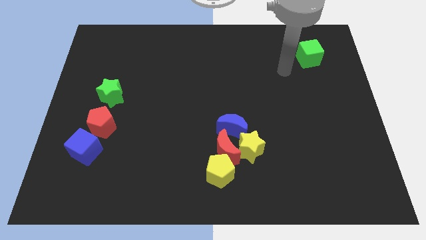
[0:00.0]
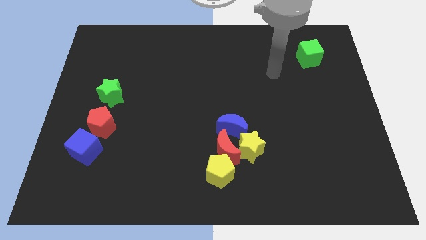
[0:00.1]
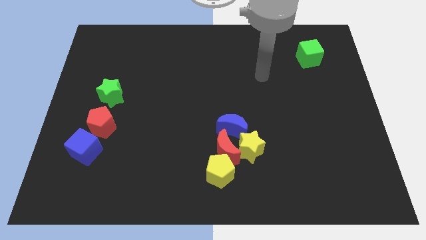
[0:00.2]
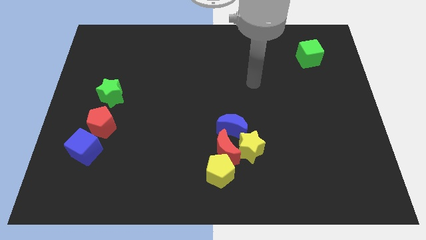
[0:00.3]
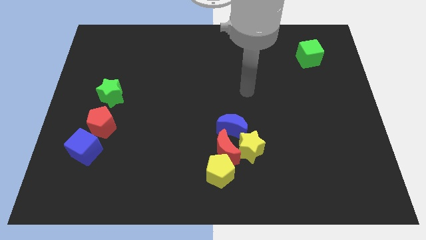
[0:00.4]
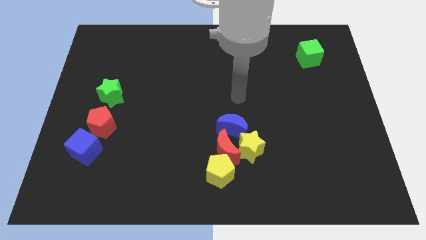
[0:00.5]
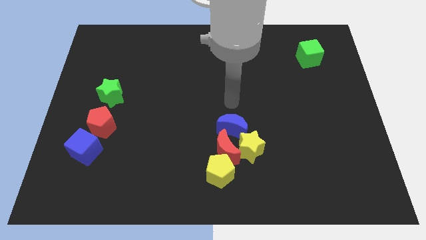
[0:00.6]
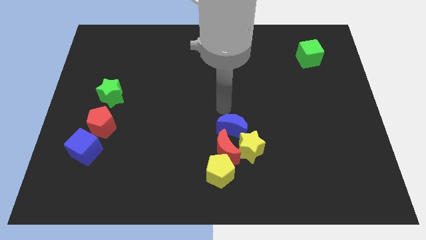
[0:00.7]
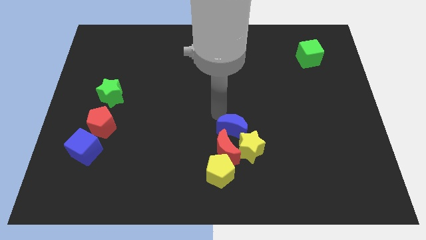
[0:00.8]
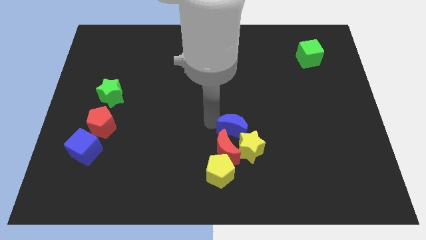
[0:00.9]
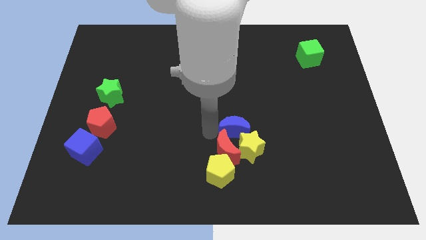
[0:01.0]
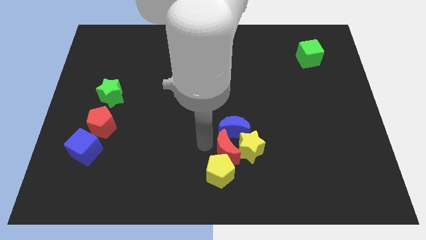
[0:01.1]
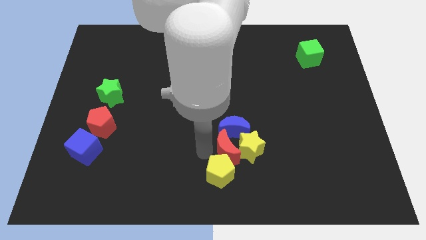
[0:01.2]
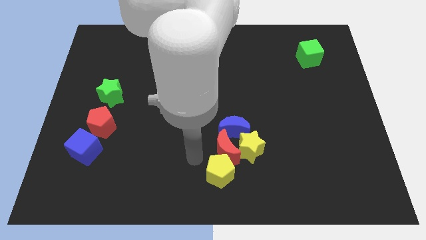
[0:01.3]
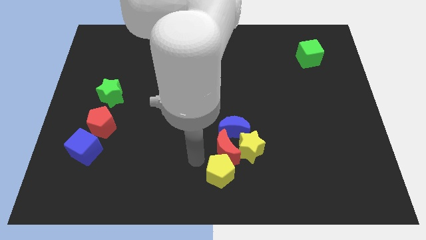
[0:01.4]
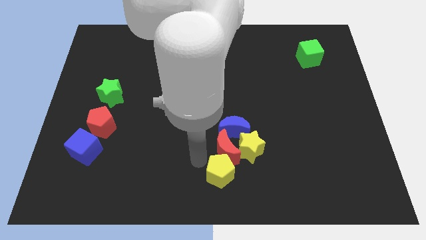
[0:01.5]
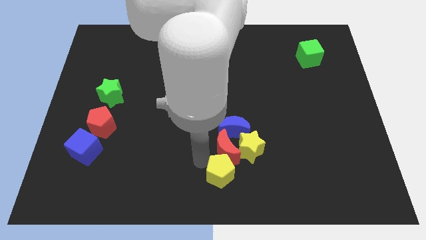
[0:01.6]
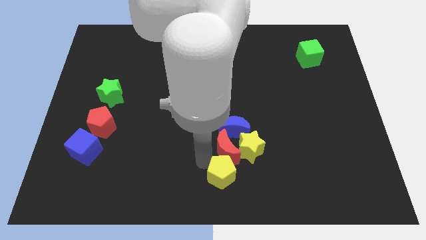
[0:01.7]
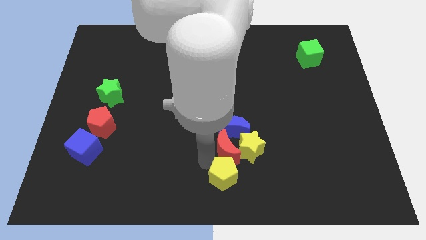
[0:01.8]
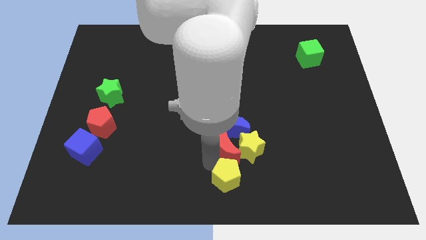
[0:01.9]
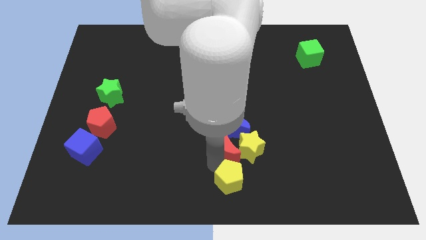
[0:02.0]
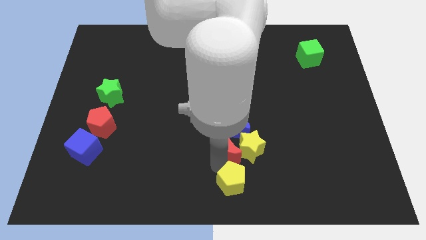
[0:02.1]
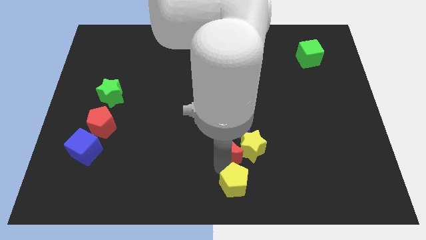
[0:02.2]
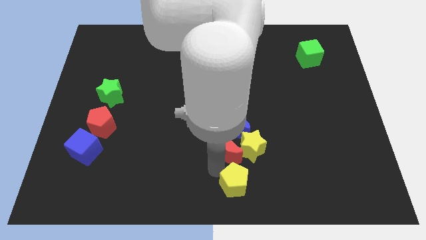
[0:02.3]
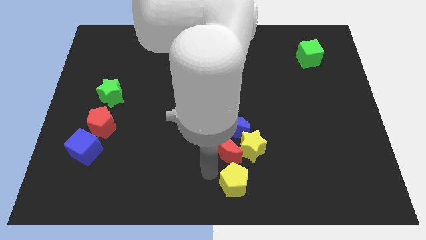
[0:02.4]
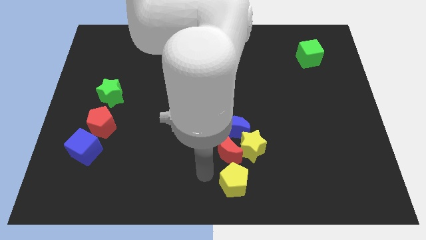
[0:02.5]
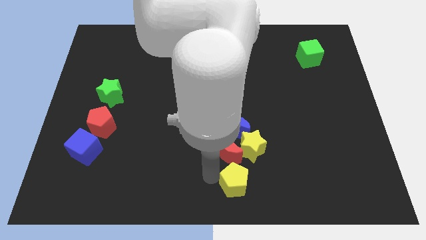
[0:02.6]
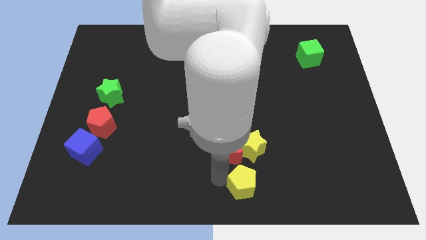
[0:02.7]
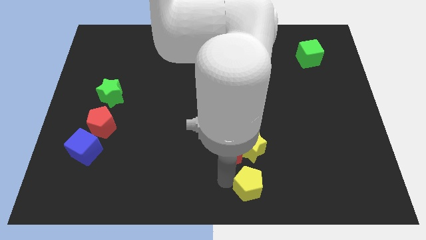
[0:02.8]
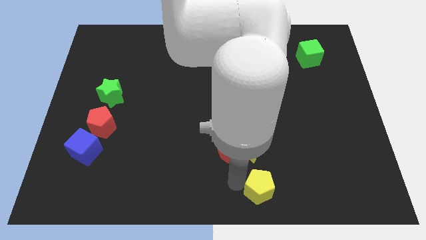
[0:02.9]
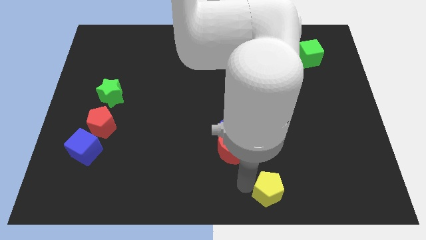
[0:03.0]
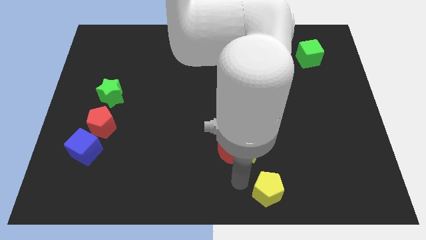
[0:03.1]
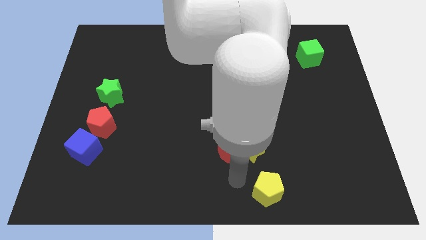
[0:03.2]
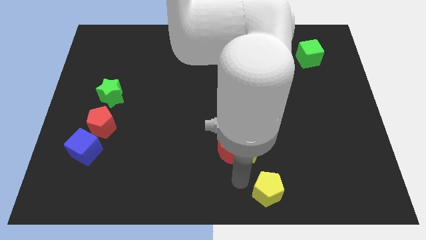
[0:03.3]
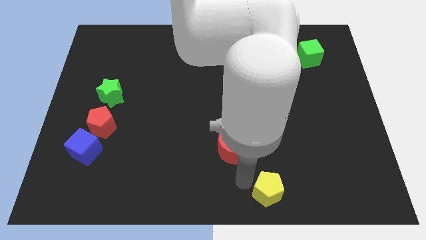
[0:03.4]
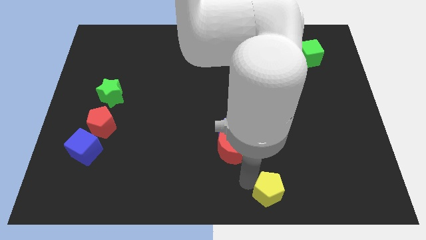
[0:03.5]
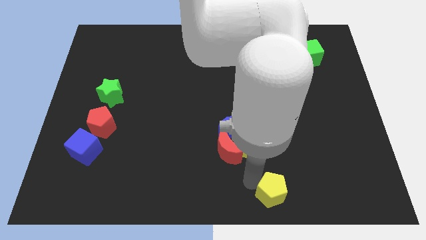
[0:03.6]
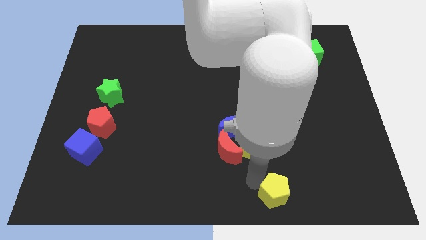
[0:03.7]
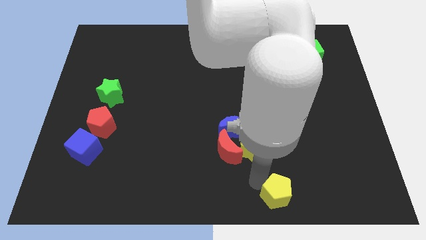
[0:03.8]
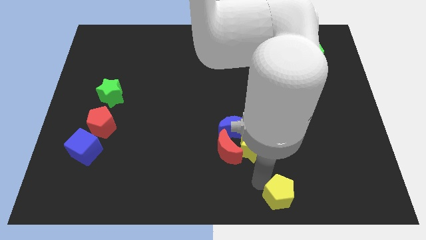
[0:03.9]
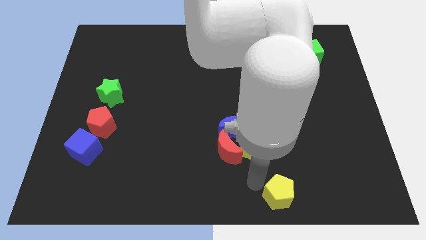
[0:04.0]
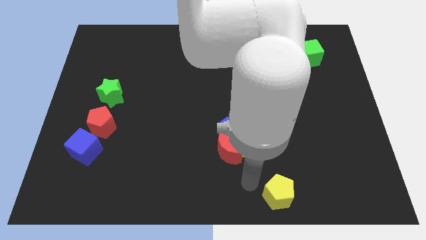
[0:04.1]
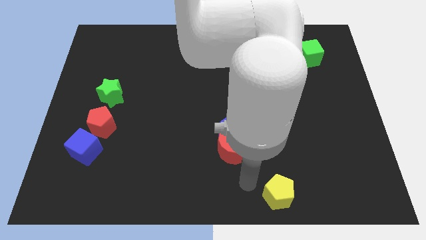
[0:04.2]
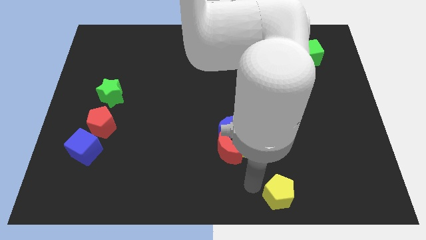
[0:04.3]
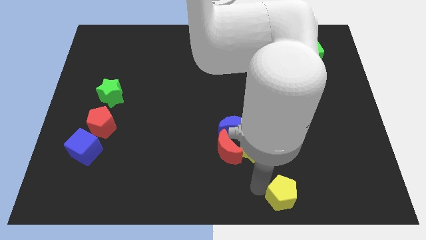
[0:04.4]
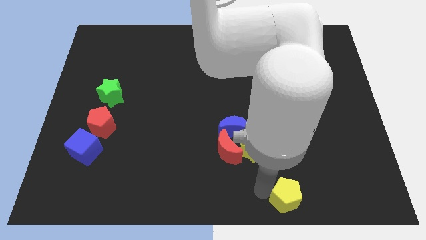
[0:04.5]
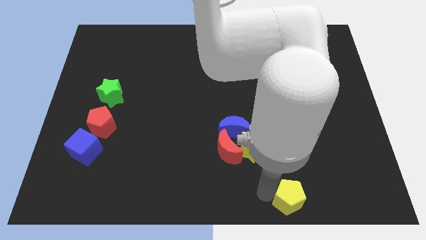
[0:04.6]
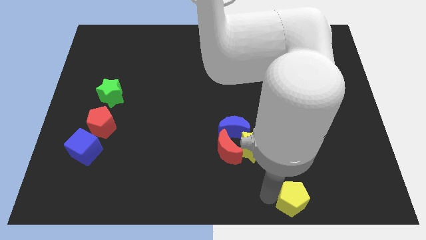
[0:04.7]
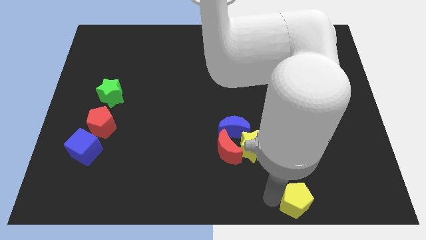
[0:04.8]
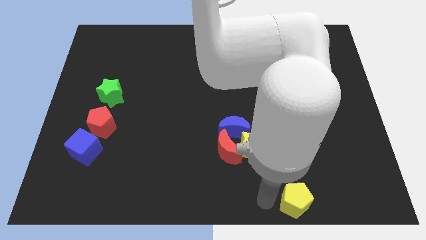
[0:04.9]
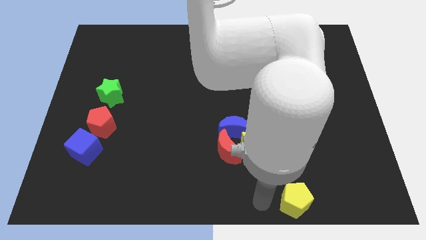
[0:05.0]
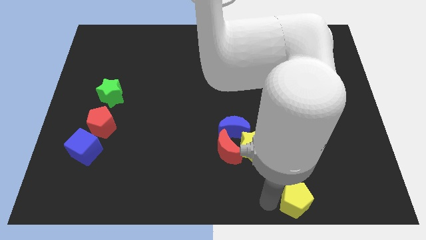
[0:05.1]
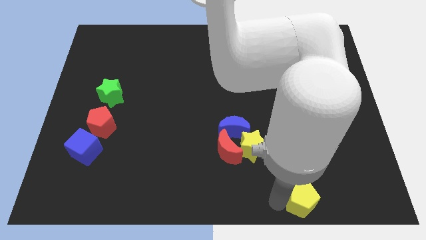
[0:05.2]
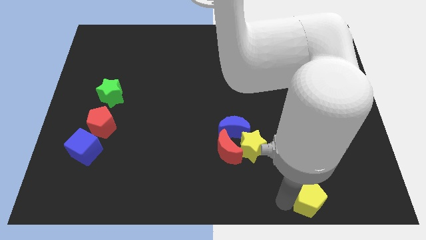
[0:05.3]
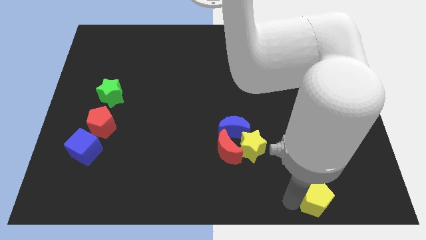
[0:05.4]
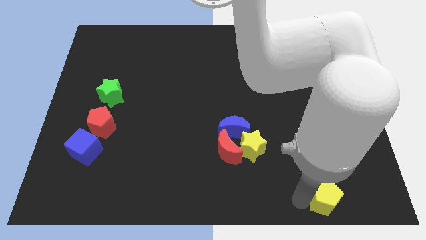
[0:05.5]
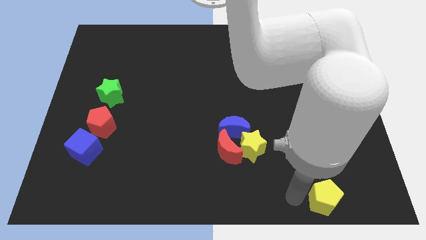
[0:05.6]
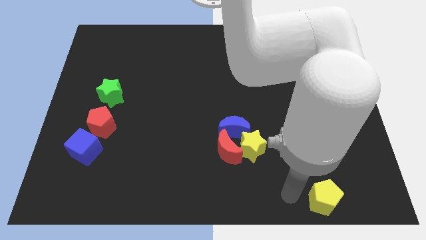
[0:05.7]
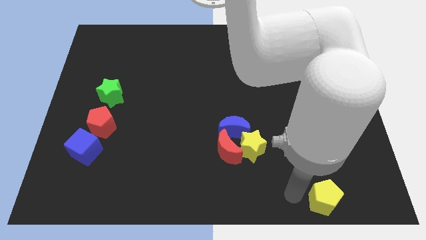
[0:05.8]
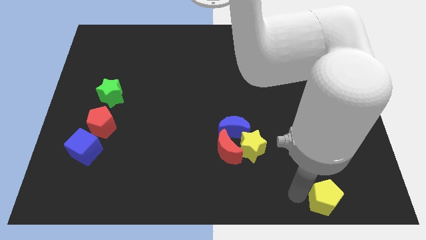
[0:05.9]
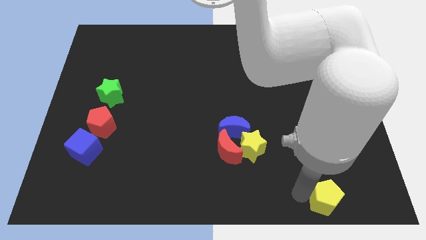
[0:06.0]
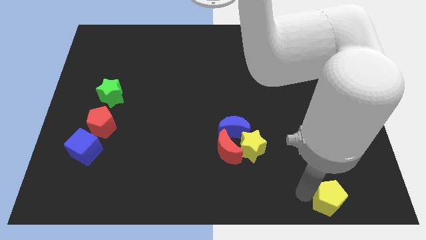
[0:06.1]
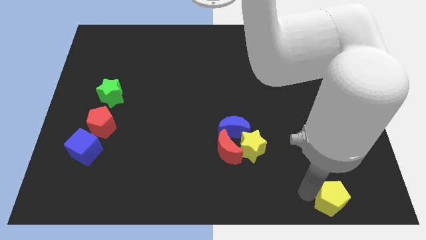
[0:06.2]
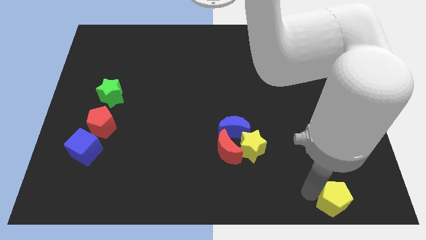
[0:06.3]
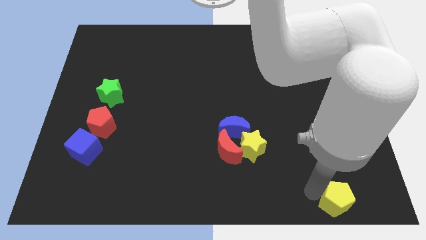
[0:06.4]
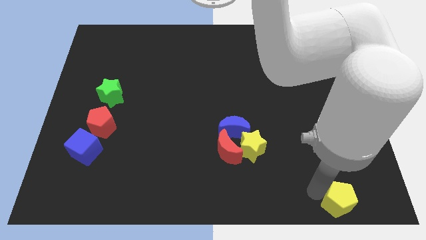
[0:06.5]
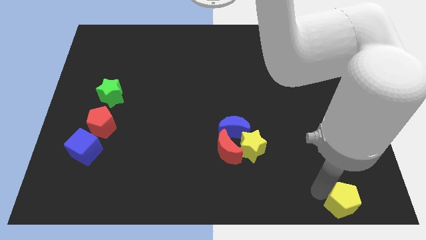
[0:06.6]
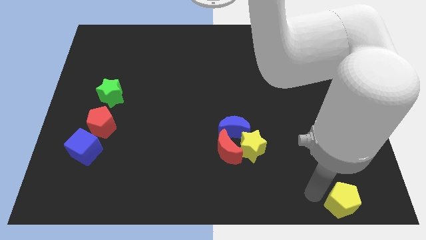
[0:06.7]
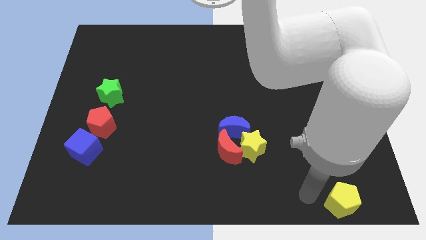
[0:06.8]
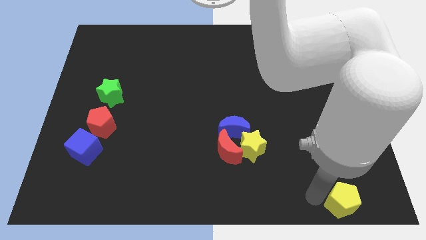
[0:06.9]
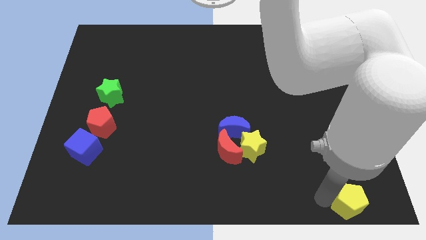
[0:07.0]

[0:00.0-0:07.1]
slide the yellow pentagon to the bottom right corner
